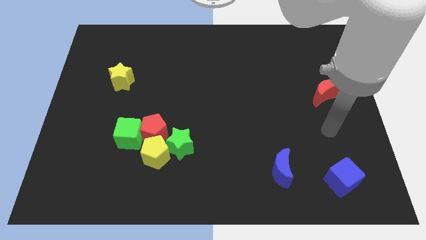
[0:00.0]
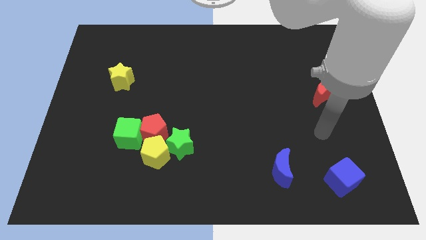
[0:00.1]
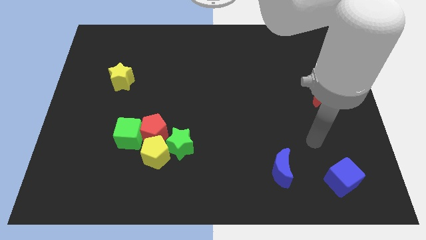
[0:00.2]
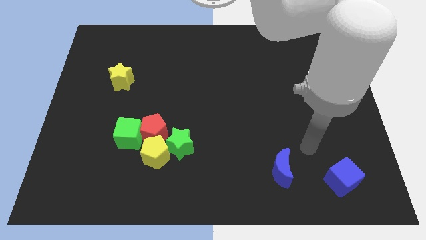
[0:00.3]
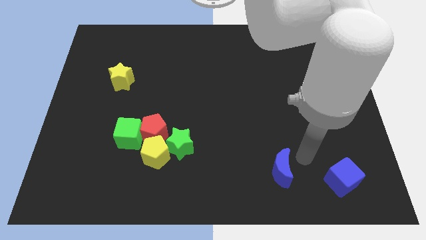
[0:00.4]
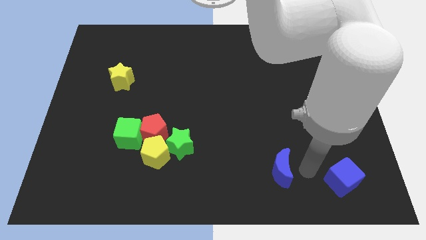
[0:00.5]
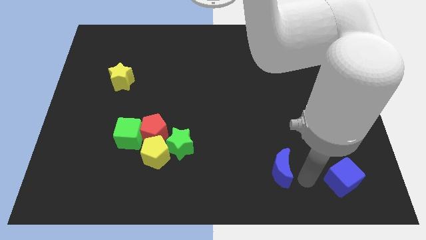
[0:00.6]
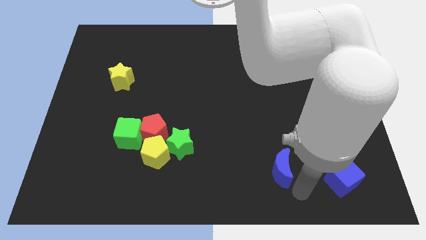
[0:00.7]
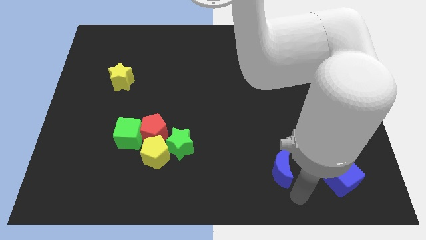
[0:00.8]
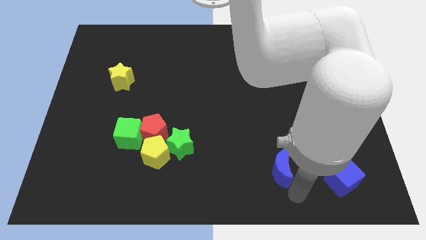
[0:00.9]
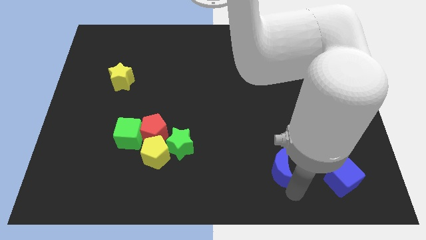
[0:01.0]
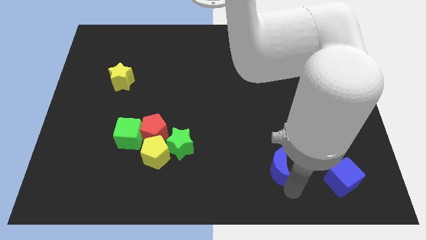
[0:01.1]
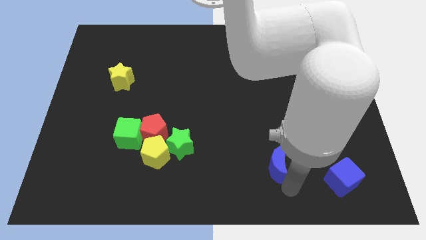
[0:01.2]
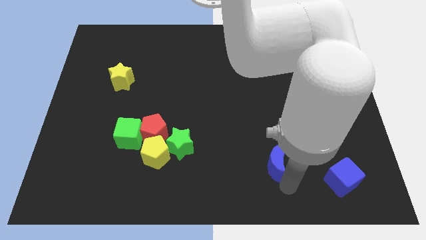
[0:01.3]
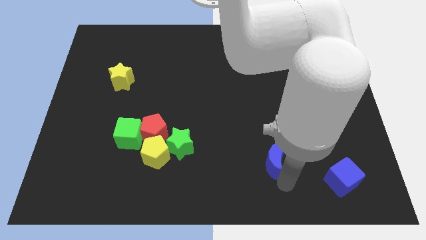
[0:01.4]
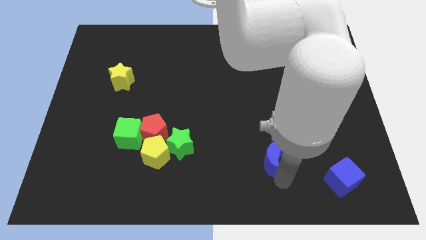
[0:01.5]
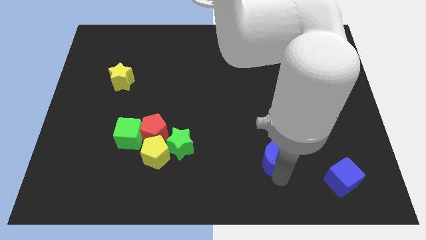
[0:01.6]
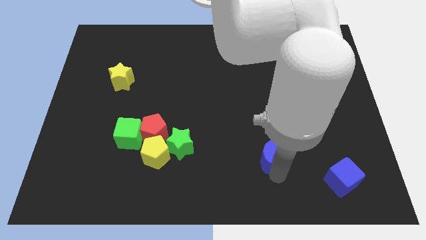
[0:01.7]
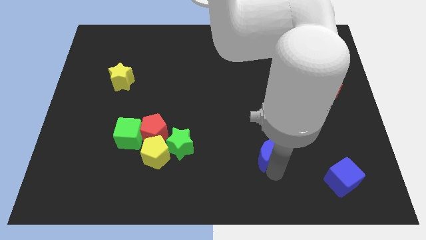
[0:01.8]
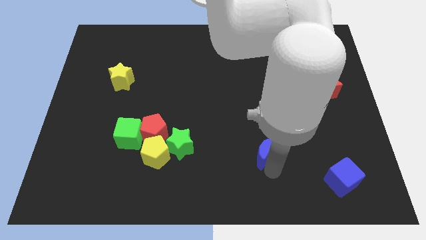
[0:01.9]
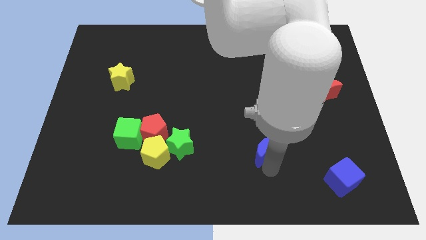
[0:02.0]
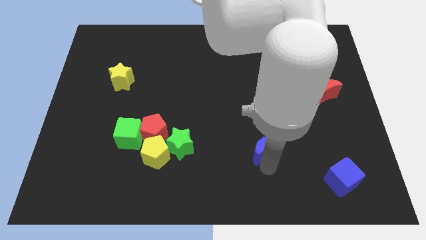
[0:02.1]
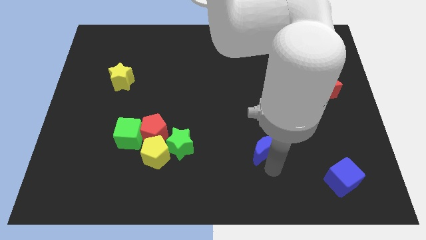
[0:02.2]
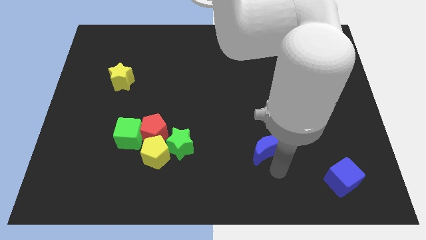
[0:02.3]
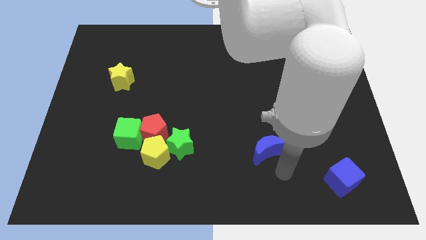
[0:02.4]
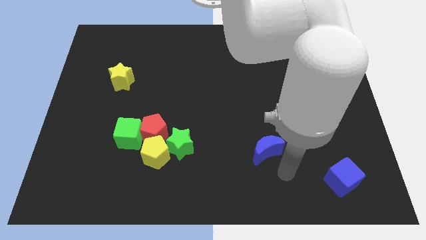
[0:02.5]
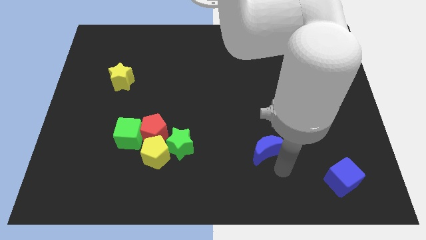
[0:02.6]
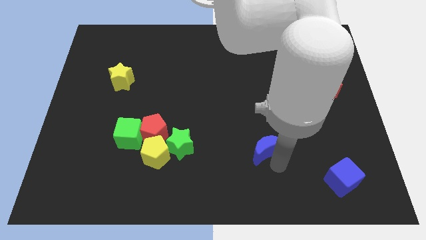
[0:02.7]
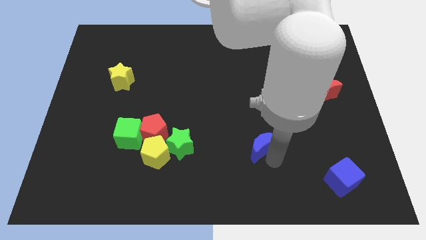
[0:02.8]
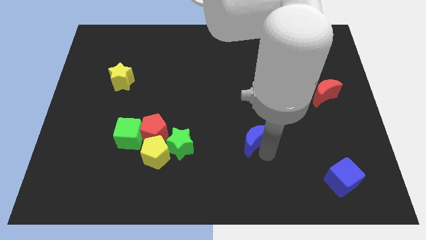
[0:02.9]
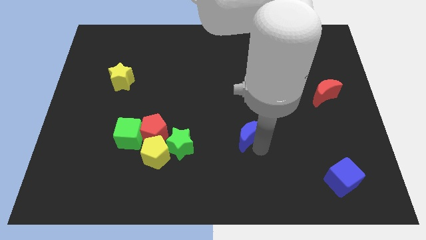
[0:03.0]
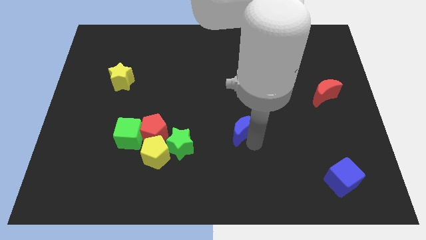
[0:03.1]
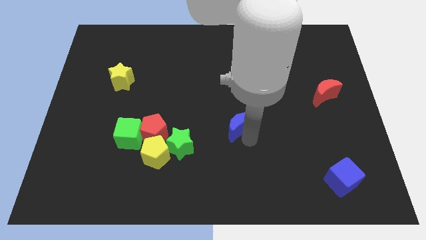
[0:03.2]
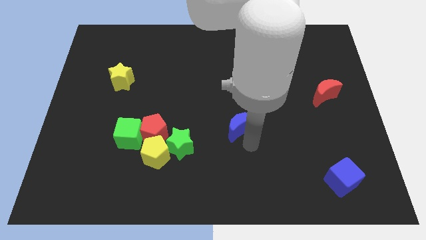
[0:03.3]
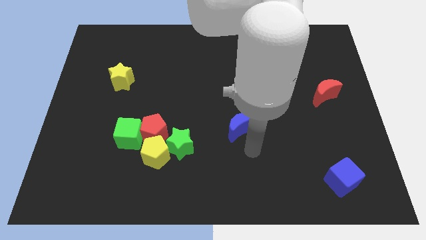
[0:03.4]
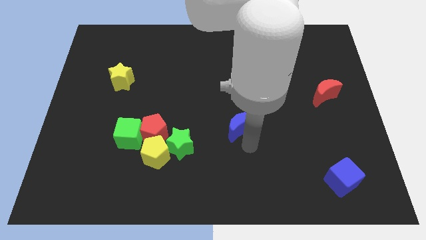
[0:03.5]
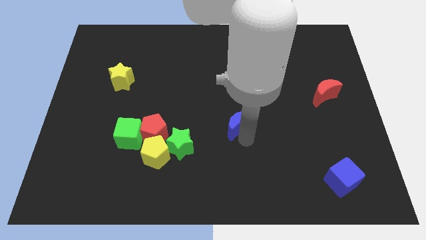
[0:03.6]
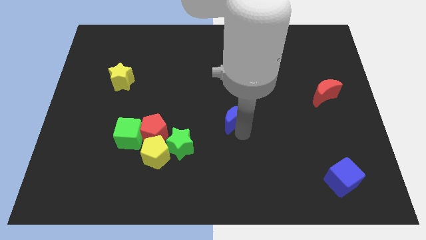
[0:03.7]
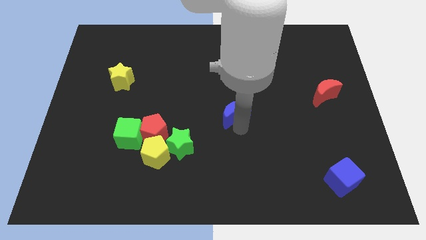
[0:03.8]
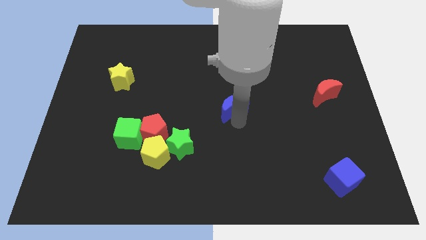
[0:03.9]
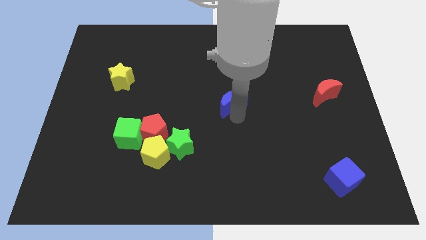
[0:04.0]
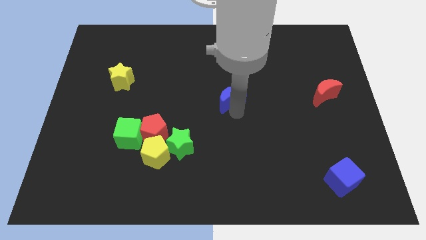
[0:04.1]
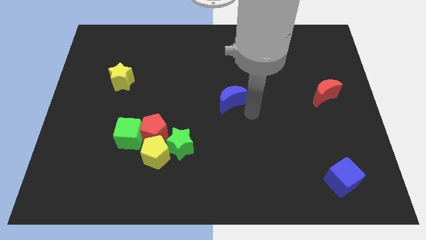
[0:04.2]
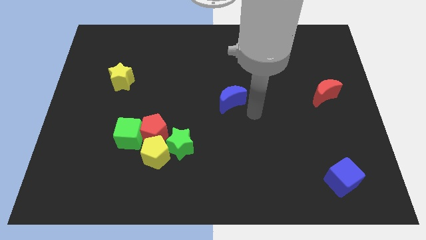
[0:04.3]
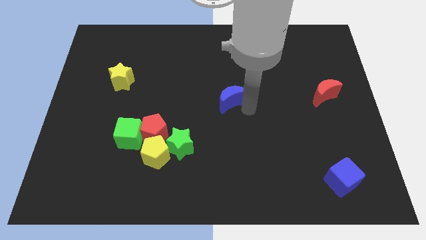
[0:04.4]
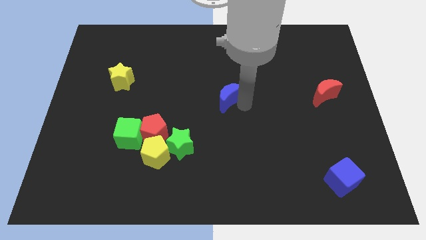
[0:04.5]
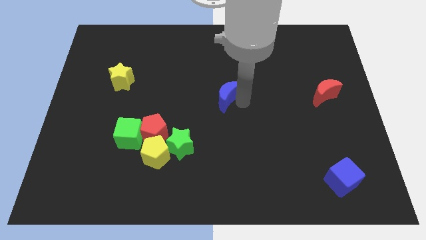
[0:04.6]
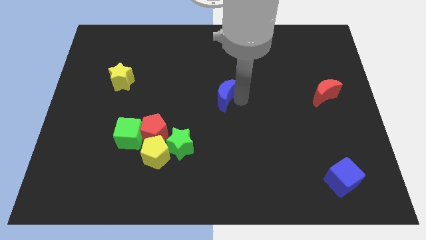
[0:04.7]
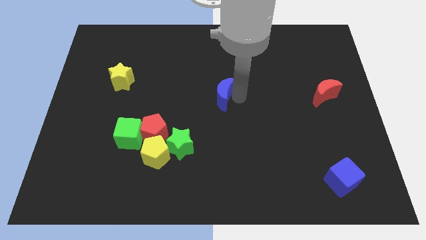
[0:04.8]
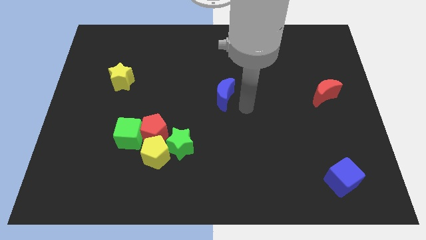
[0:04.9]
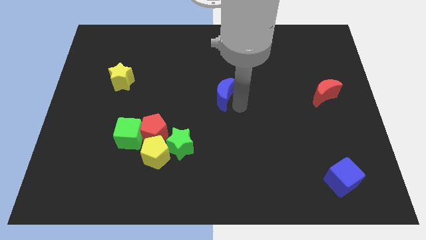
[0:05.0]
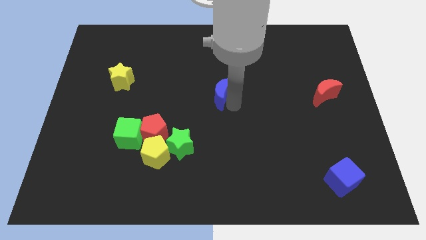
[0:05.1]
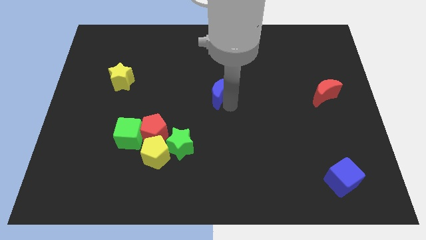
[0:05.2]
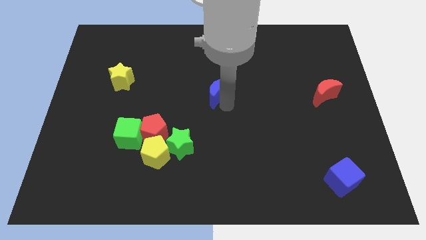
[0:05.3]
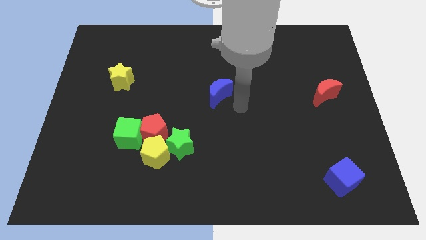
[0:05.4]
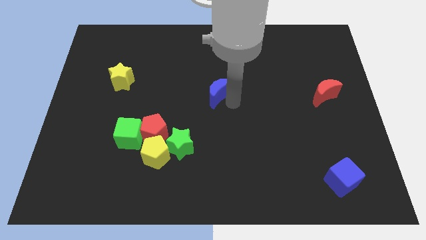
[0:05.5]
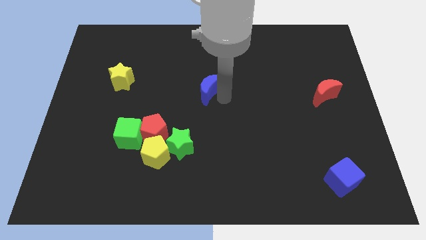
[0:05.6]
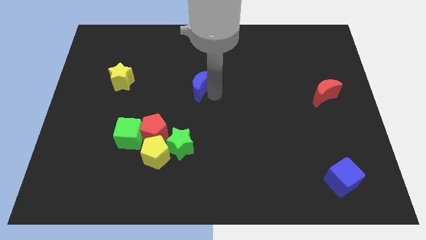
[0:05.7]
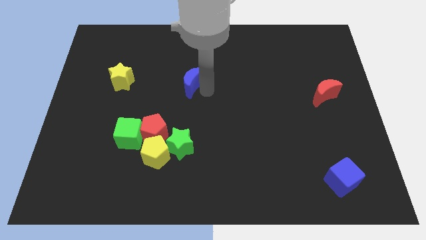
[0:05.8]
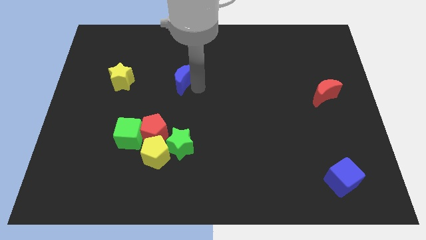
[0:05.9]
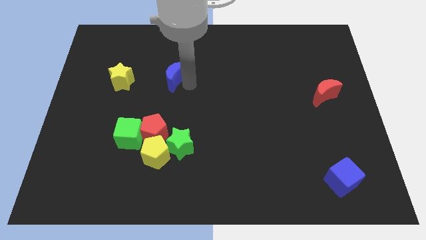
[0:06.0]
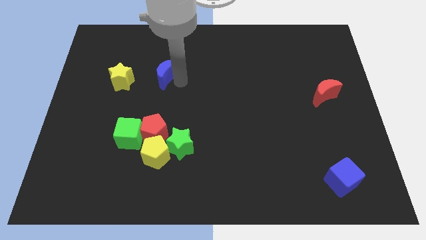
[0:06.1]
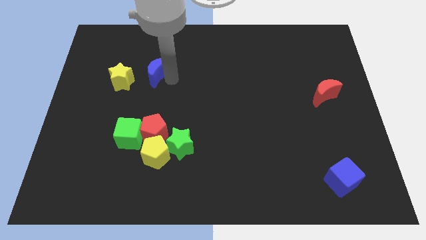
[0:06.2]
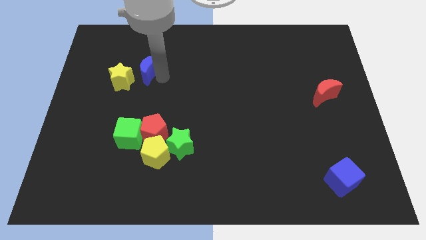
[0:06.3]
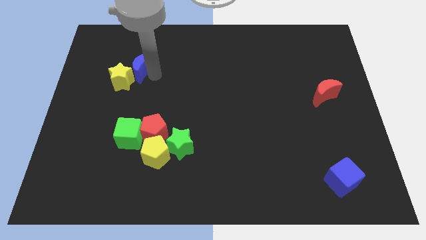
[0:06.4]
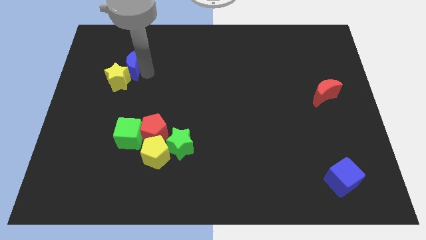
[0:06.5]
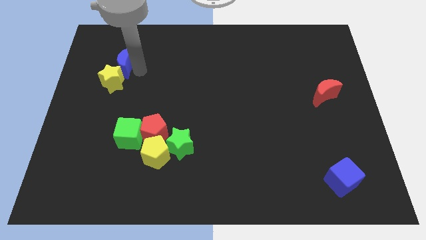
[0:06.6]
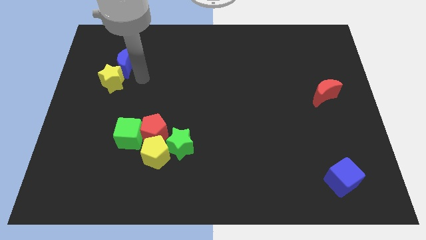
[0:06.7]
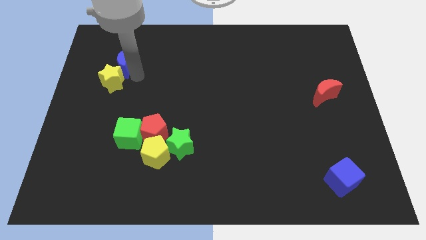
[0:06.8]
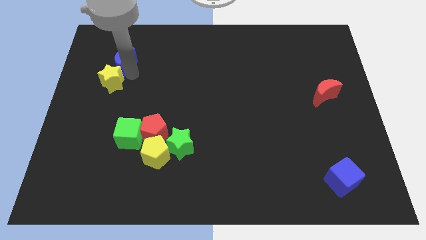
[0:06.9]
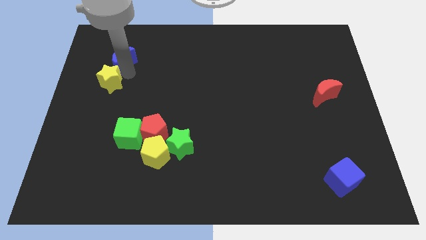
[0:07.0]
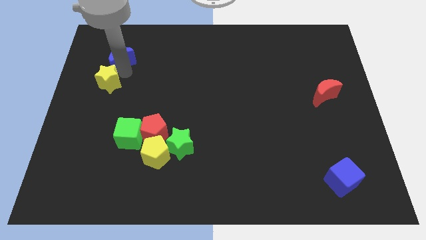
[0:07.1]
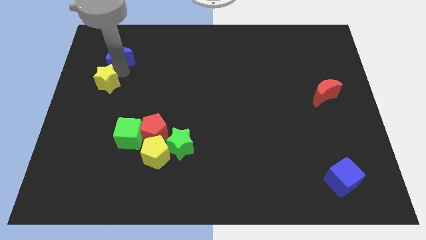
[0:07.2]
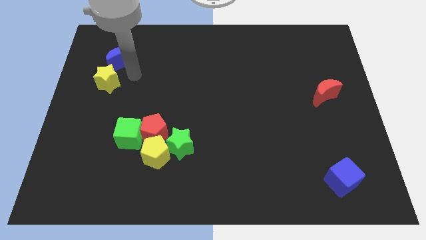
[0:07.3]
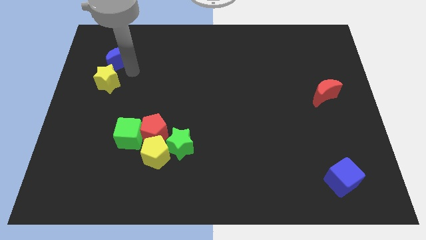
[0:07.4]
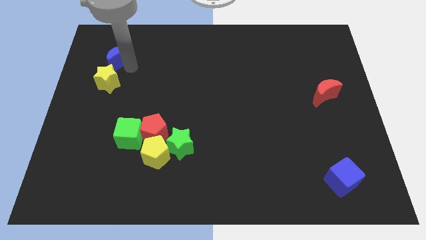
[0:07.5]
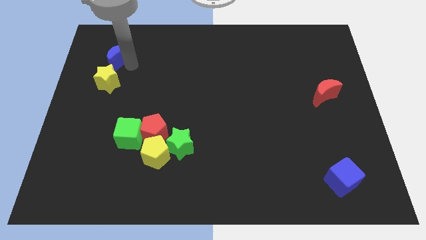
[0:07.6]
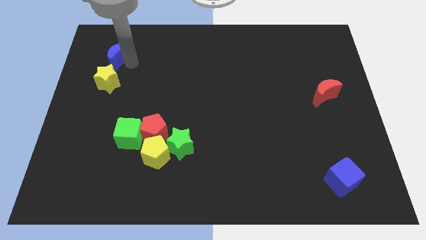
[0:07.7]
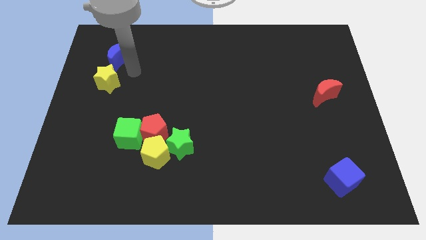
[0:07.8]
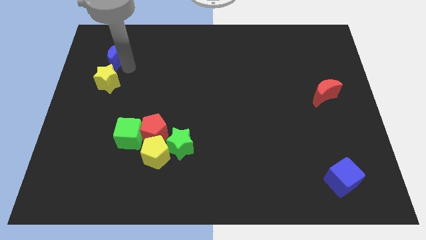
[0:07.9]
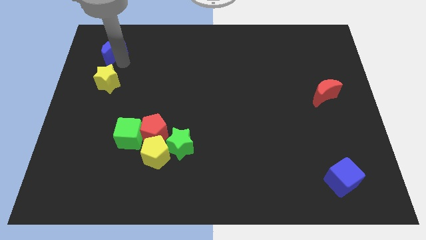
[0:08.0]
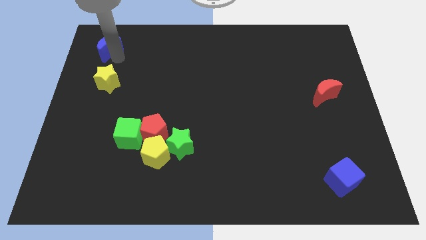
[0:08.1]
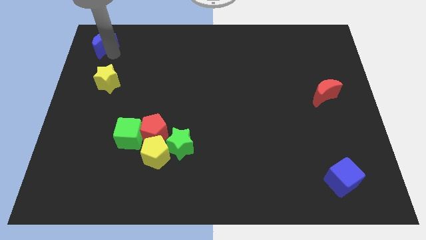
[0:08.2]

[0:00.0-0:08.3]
push the blue moon to the top left corner
